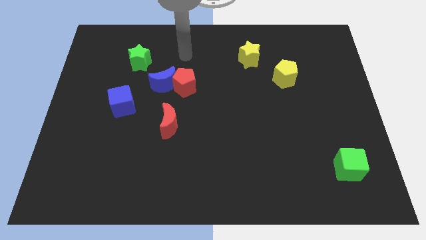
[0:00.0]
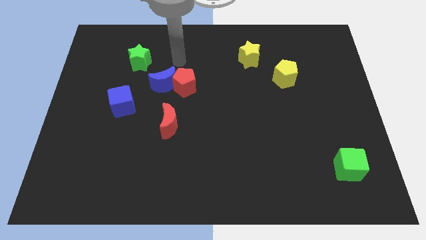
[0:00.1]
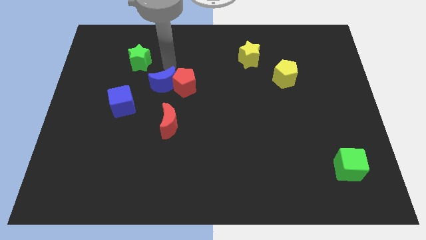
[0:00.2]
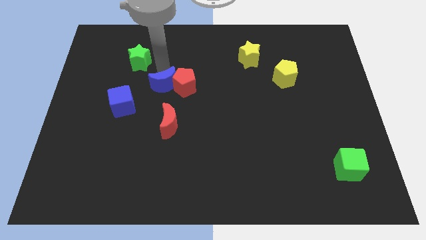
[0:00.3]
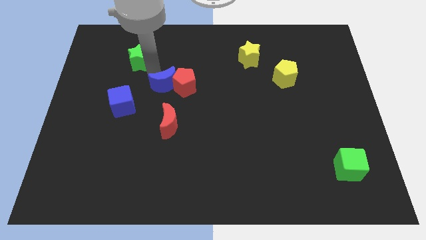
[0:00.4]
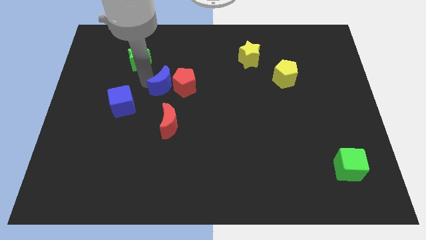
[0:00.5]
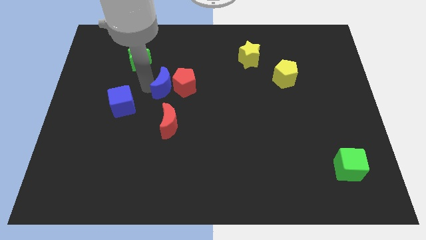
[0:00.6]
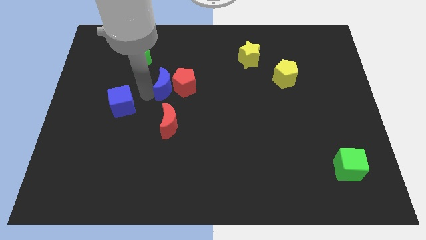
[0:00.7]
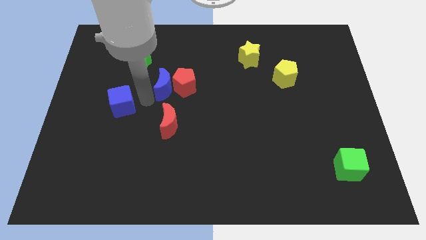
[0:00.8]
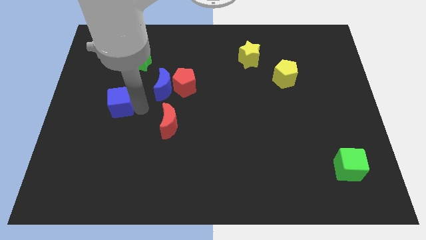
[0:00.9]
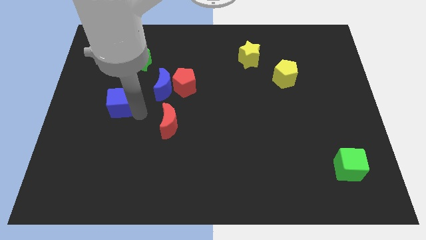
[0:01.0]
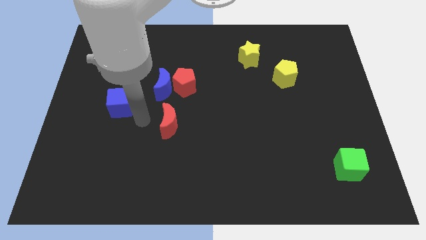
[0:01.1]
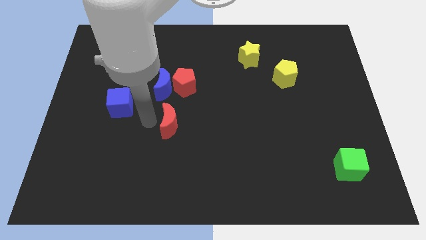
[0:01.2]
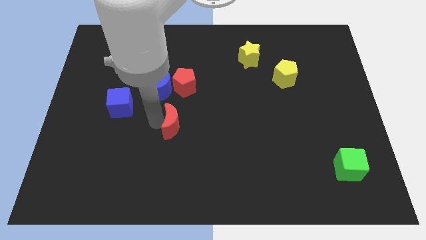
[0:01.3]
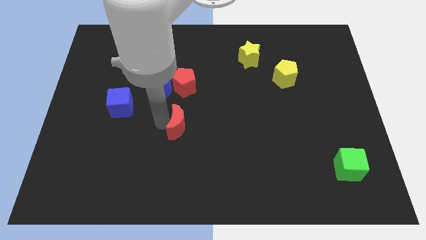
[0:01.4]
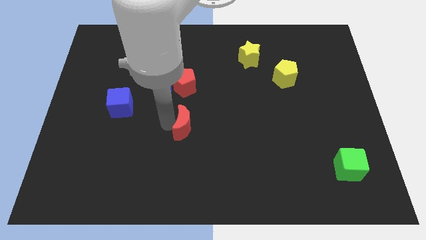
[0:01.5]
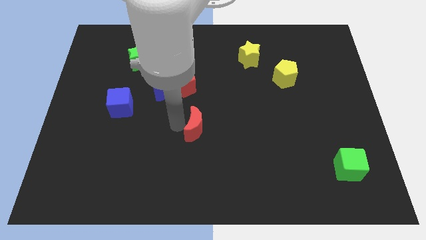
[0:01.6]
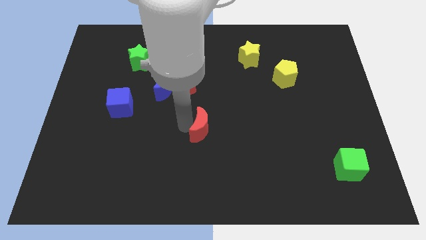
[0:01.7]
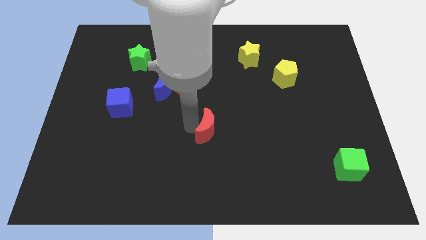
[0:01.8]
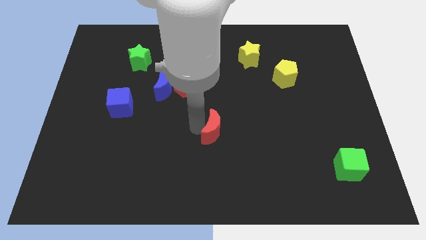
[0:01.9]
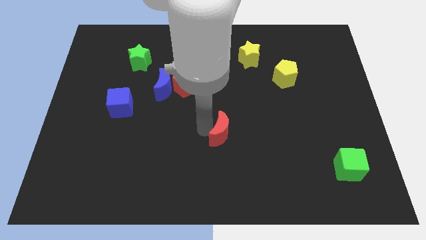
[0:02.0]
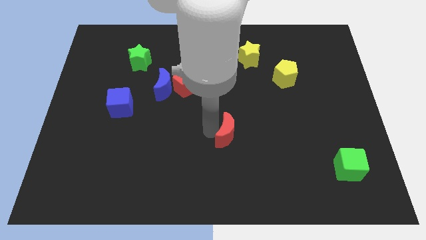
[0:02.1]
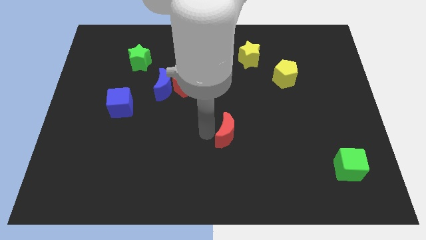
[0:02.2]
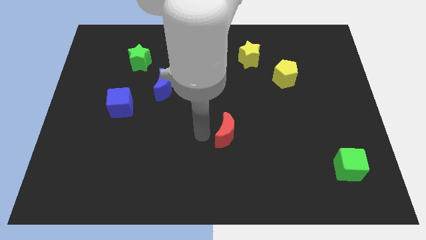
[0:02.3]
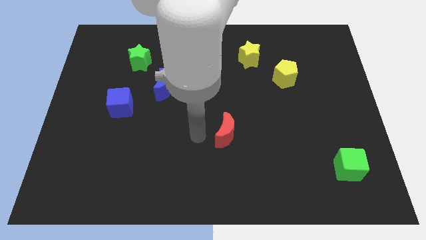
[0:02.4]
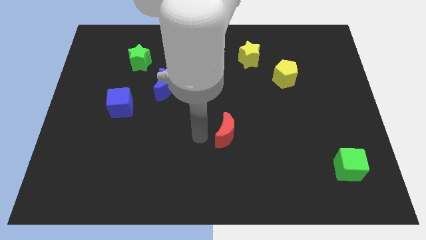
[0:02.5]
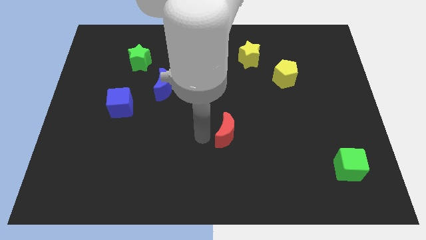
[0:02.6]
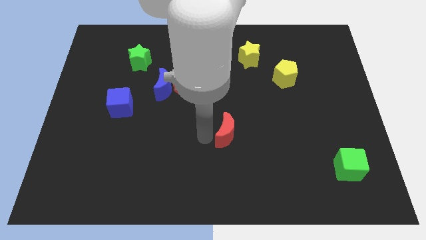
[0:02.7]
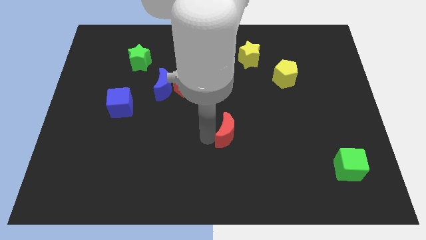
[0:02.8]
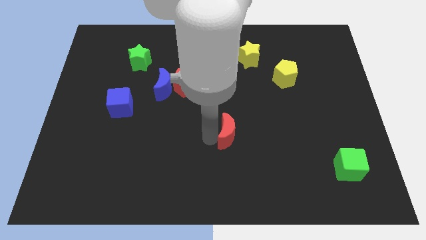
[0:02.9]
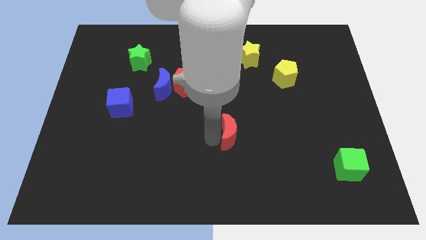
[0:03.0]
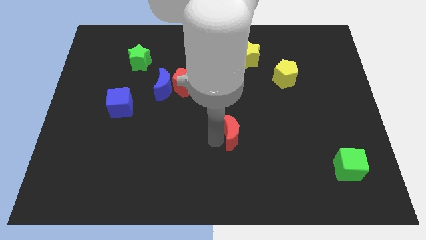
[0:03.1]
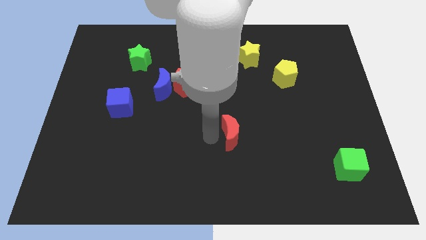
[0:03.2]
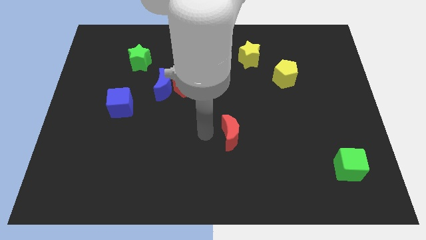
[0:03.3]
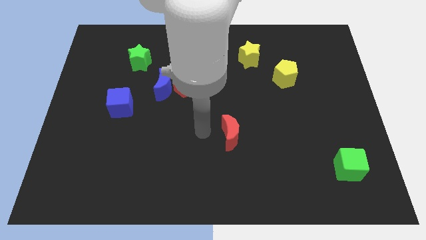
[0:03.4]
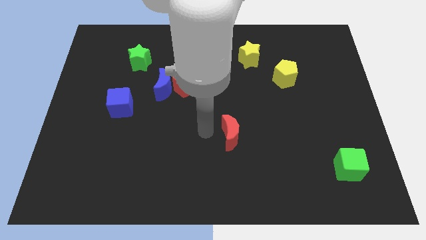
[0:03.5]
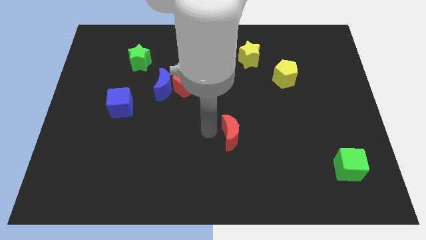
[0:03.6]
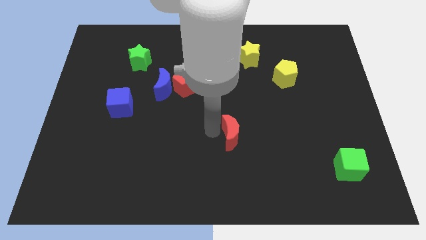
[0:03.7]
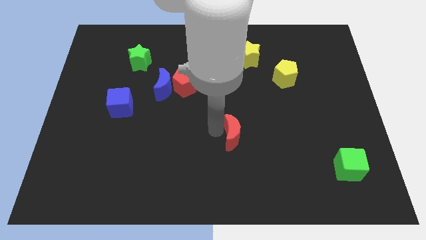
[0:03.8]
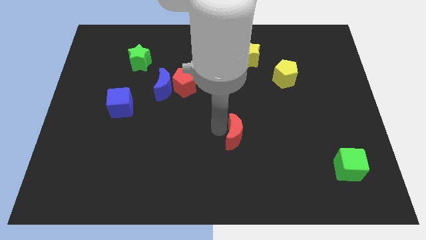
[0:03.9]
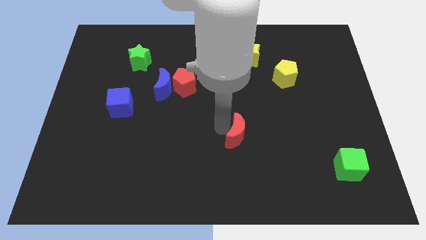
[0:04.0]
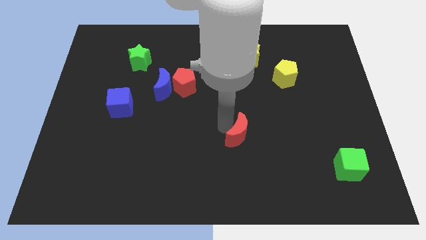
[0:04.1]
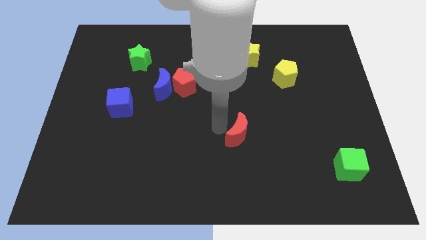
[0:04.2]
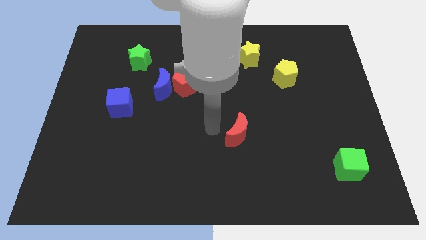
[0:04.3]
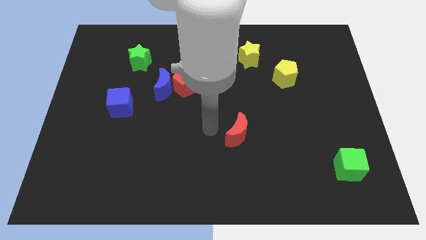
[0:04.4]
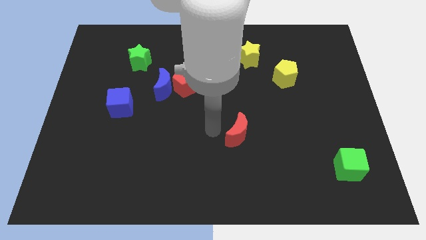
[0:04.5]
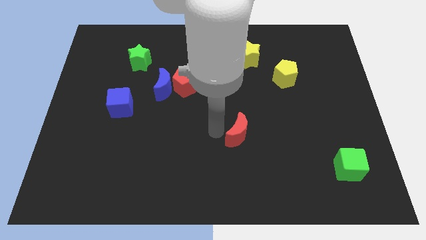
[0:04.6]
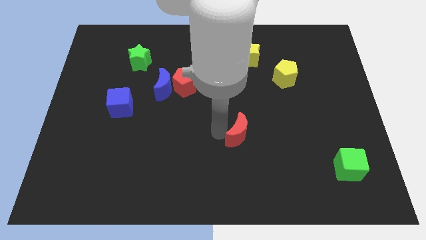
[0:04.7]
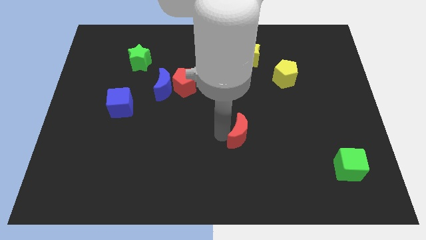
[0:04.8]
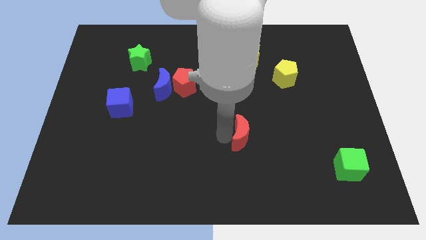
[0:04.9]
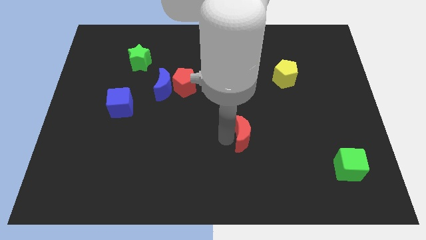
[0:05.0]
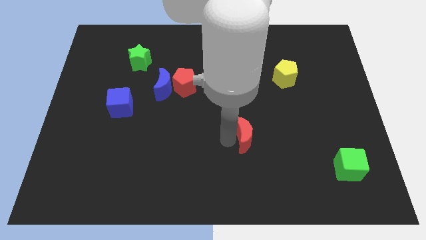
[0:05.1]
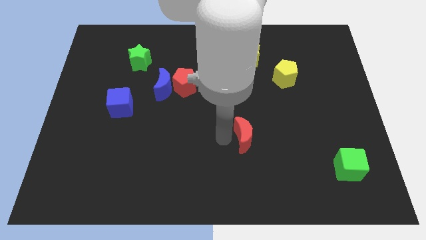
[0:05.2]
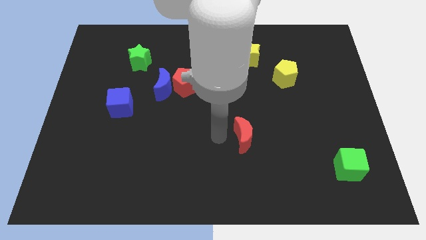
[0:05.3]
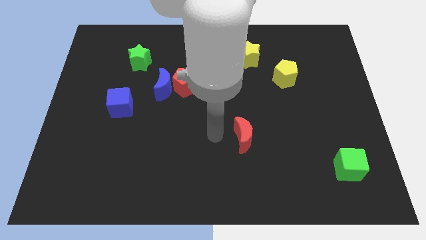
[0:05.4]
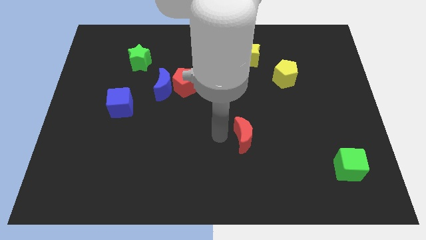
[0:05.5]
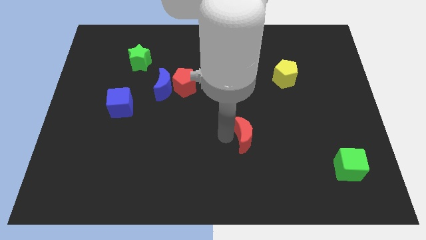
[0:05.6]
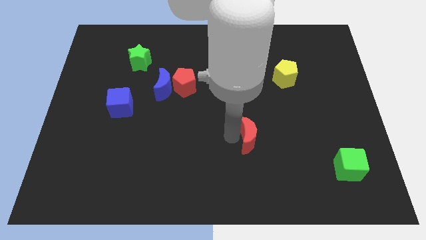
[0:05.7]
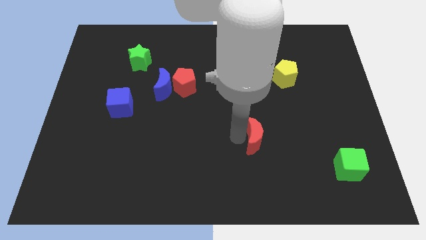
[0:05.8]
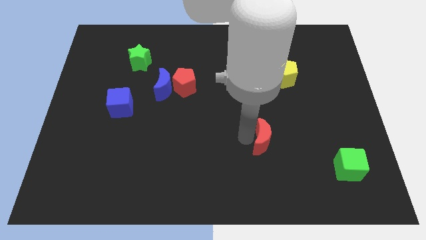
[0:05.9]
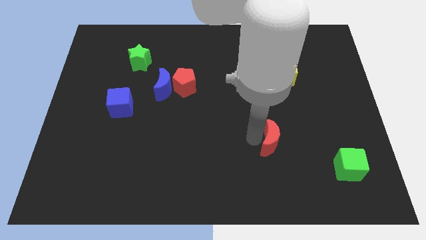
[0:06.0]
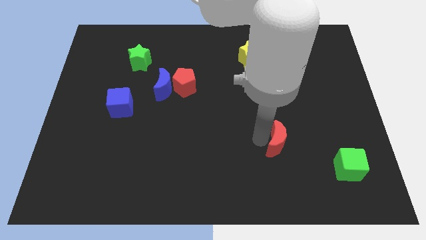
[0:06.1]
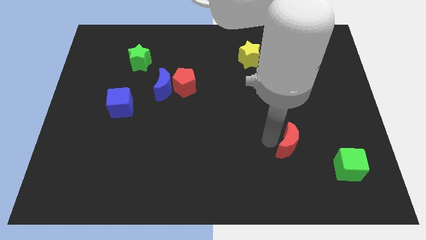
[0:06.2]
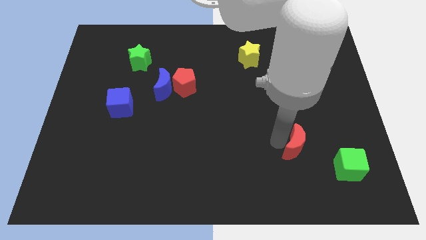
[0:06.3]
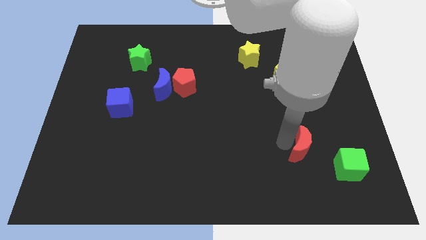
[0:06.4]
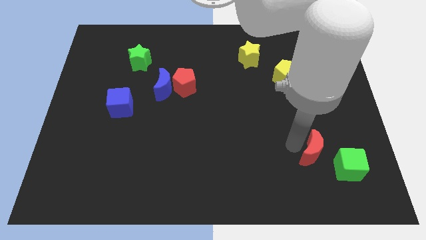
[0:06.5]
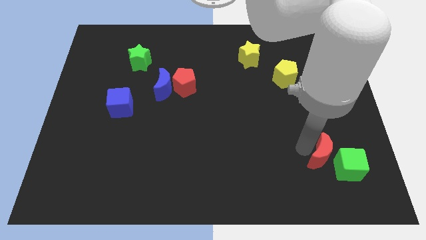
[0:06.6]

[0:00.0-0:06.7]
slide the red moon to the green cube
